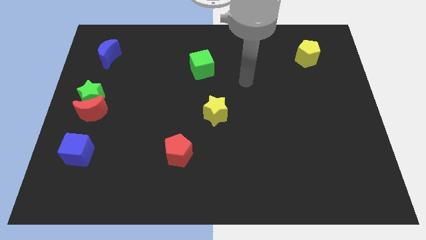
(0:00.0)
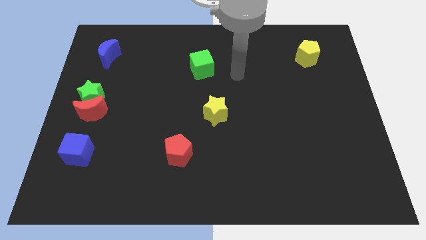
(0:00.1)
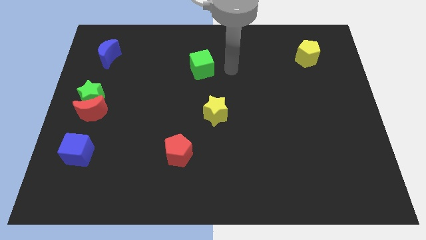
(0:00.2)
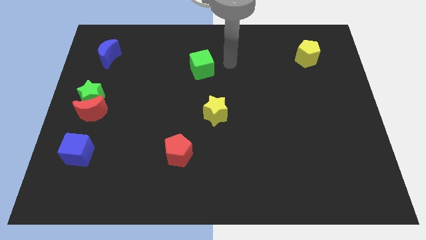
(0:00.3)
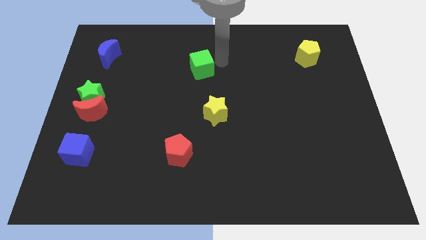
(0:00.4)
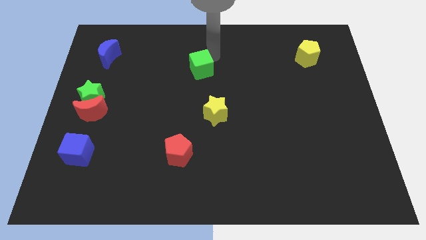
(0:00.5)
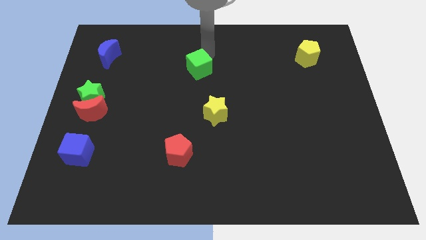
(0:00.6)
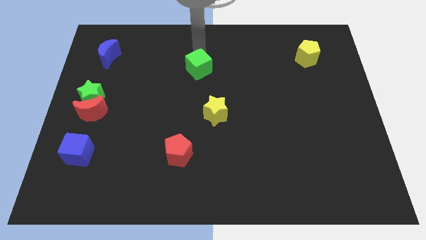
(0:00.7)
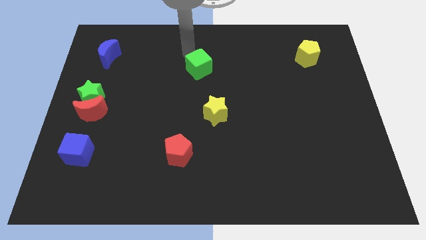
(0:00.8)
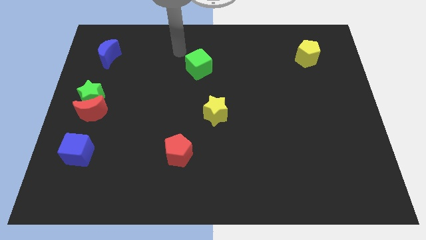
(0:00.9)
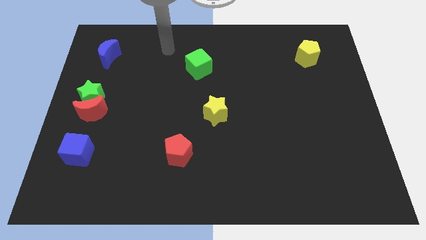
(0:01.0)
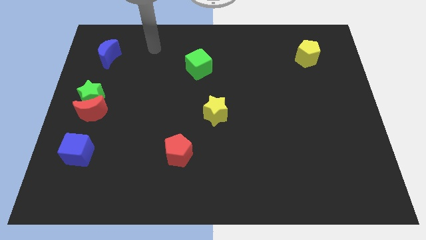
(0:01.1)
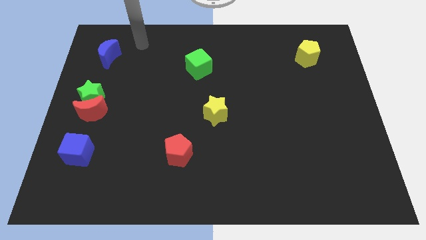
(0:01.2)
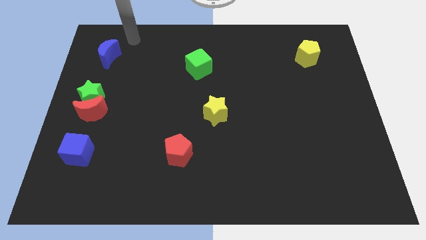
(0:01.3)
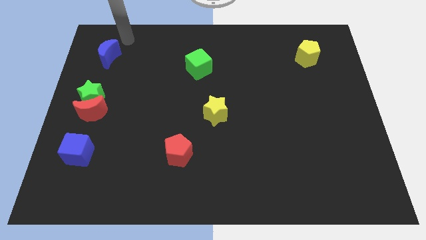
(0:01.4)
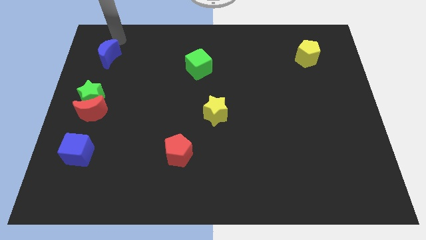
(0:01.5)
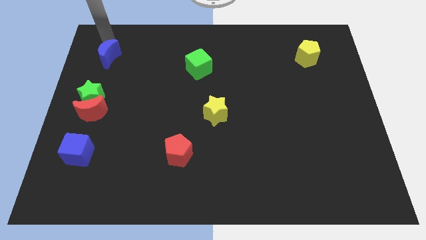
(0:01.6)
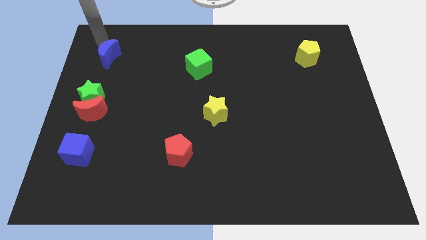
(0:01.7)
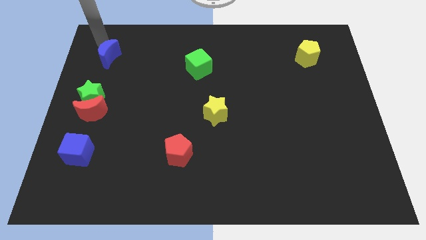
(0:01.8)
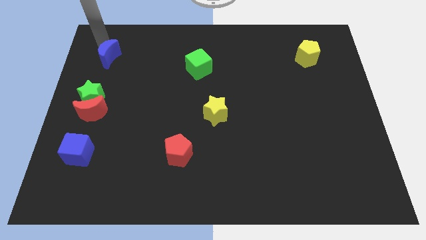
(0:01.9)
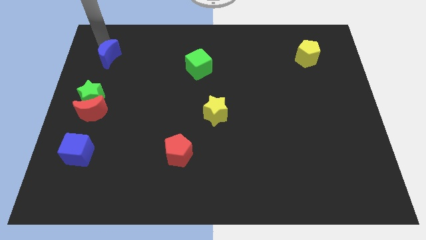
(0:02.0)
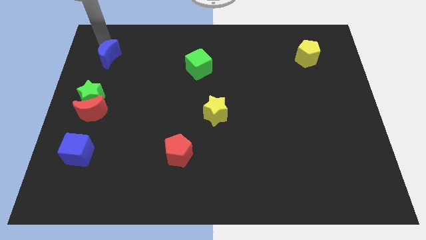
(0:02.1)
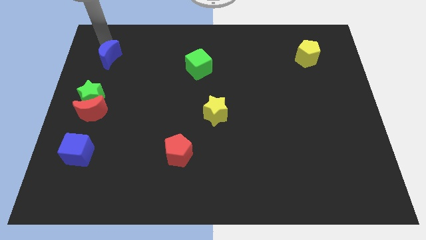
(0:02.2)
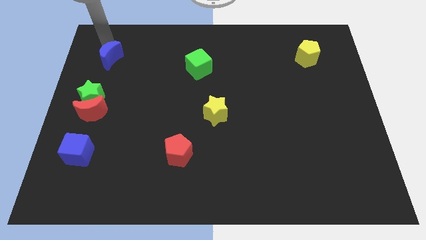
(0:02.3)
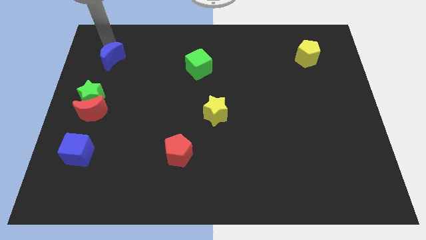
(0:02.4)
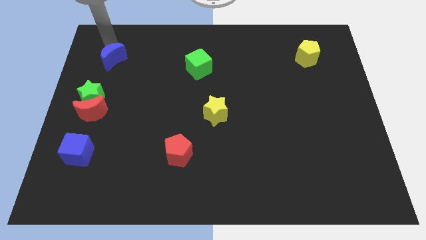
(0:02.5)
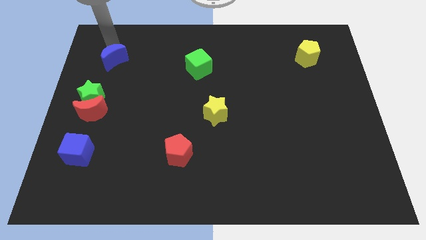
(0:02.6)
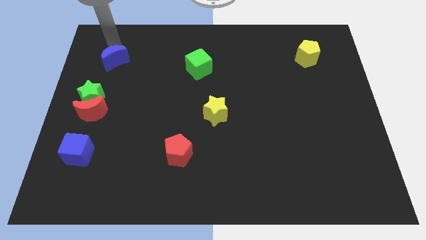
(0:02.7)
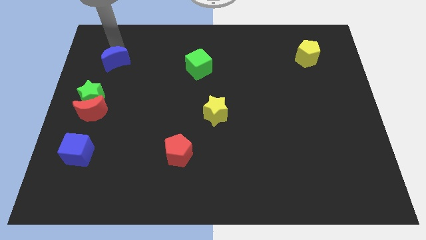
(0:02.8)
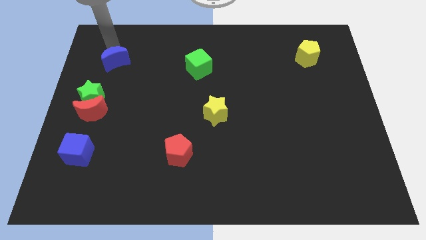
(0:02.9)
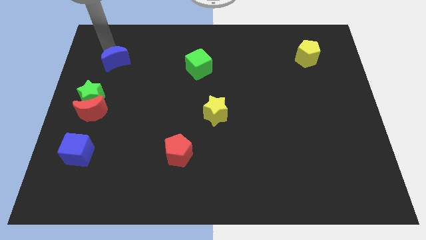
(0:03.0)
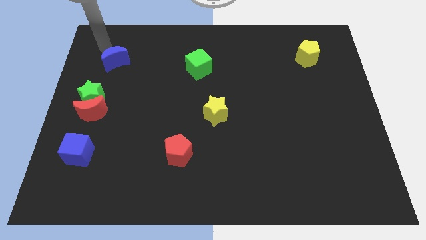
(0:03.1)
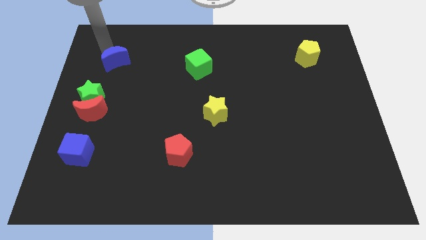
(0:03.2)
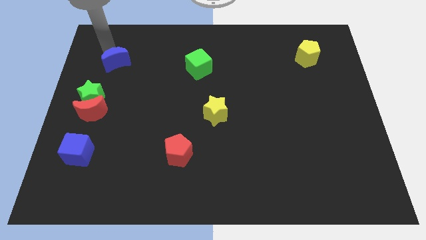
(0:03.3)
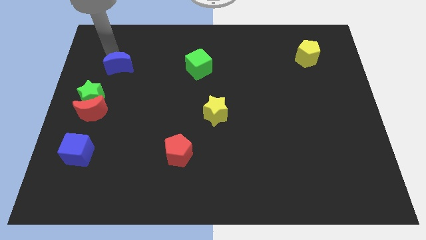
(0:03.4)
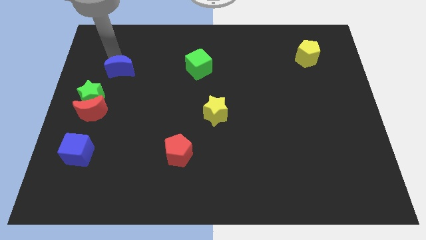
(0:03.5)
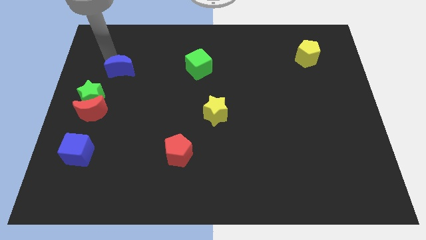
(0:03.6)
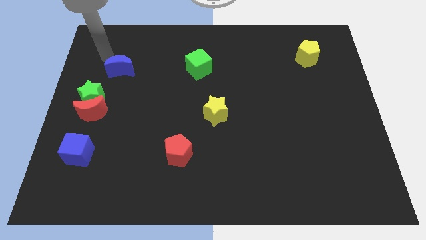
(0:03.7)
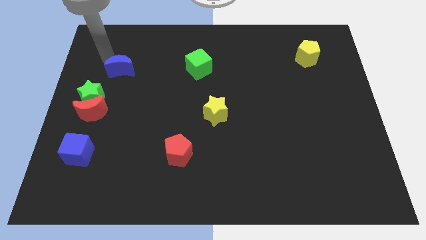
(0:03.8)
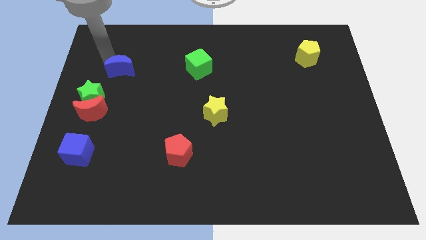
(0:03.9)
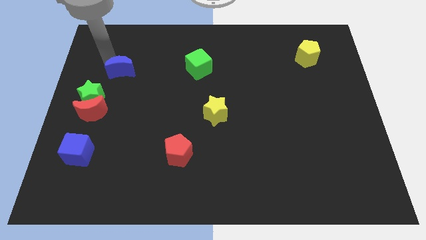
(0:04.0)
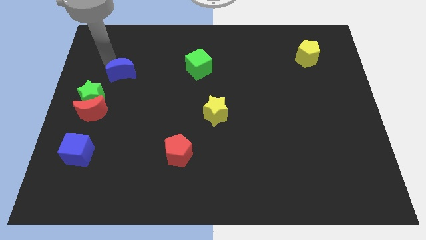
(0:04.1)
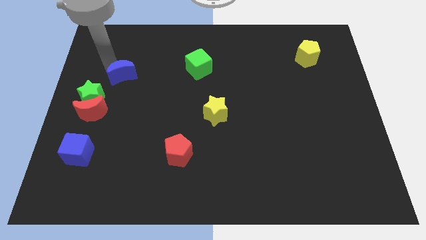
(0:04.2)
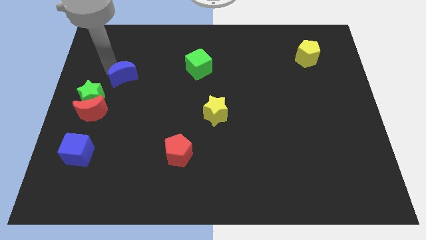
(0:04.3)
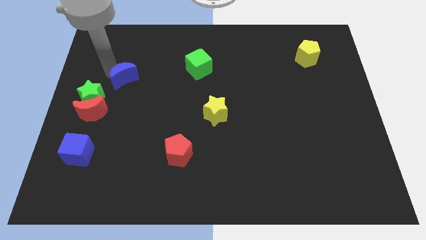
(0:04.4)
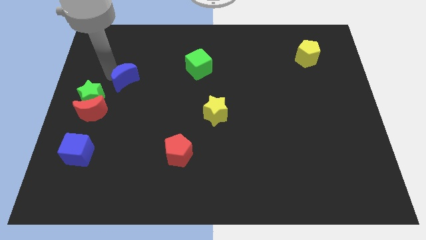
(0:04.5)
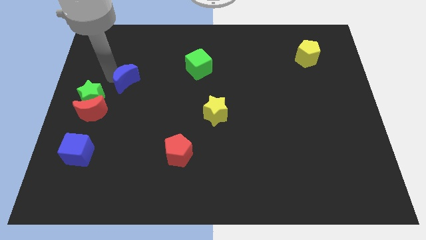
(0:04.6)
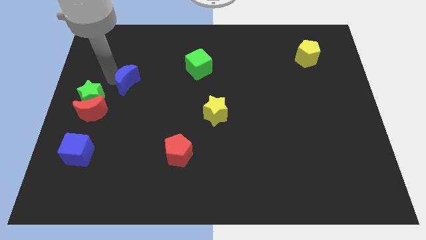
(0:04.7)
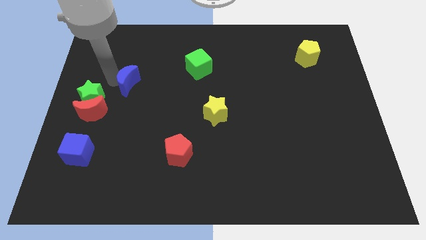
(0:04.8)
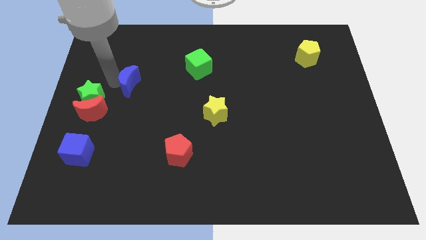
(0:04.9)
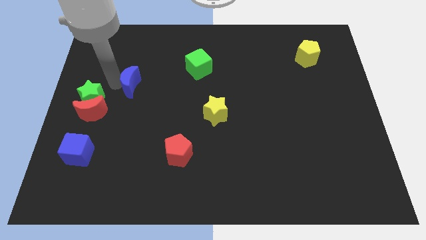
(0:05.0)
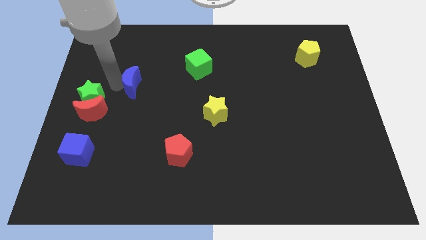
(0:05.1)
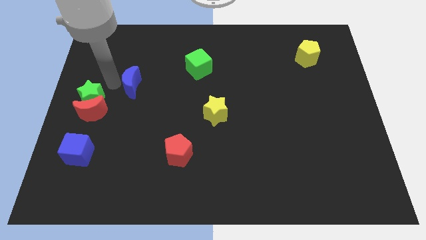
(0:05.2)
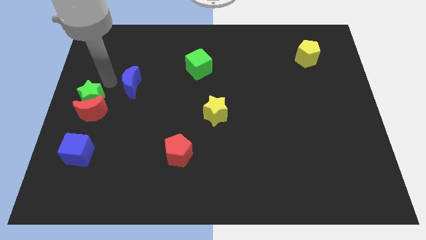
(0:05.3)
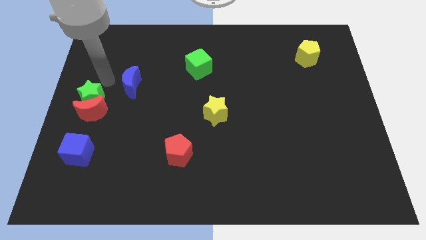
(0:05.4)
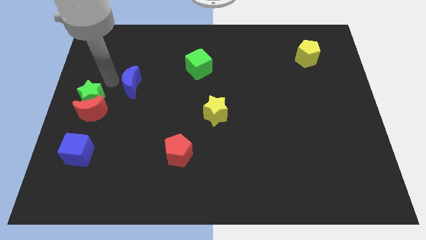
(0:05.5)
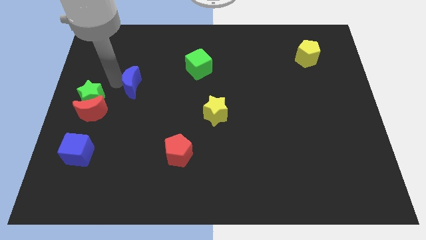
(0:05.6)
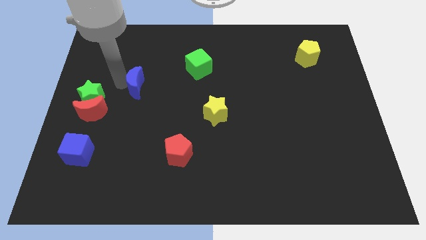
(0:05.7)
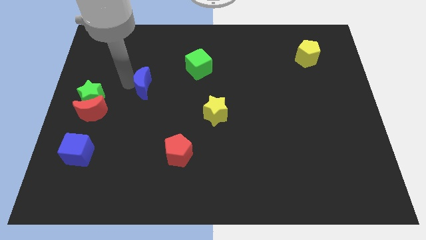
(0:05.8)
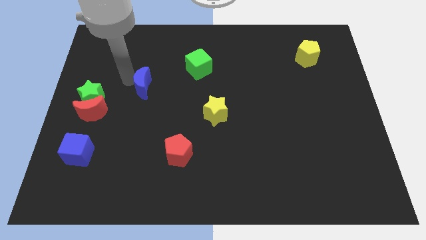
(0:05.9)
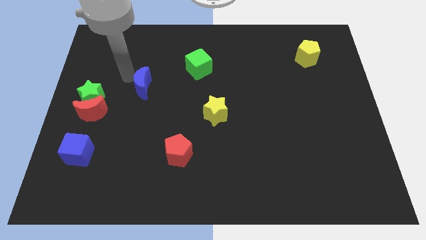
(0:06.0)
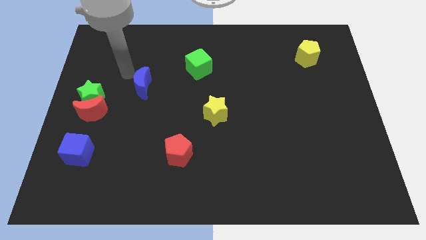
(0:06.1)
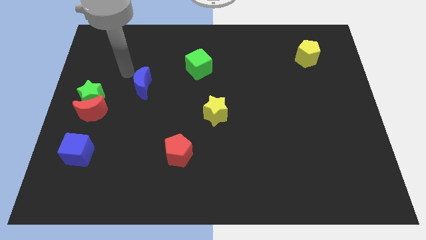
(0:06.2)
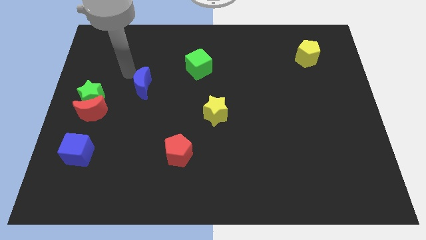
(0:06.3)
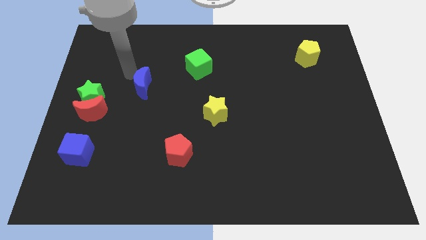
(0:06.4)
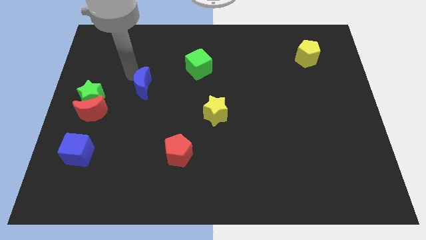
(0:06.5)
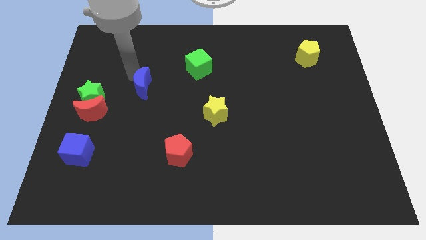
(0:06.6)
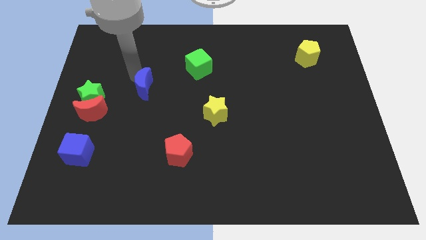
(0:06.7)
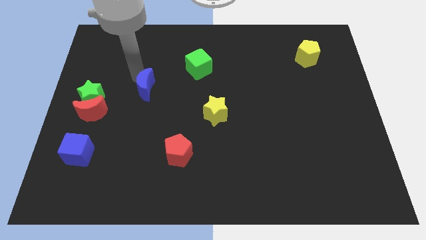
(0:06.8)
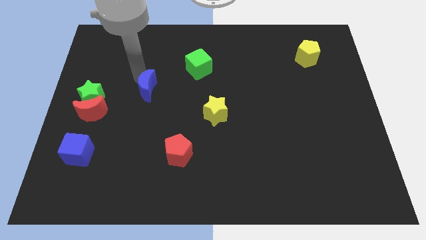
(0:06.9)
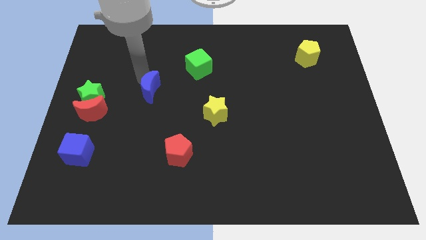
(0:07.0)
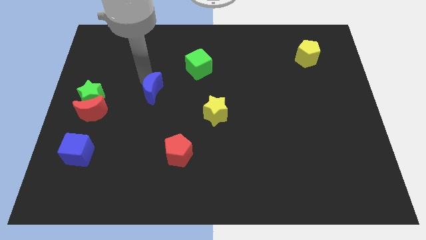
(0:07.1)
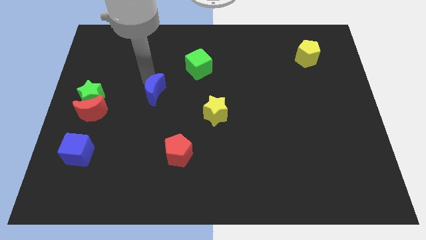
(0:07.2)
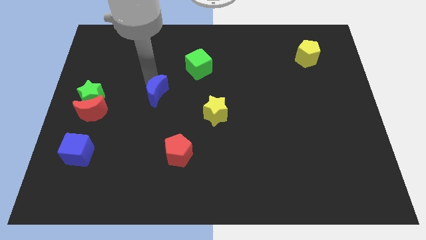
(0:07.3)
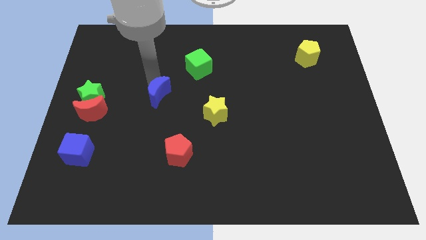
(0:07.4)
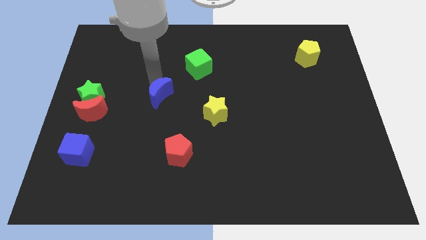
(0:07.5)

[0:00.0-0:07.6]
slide the blue moon diagonally down and right

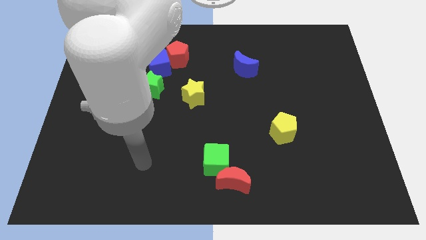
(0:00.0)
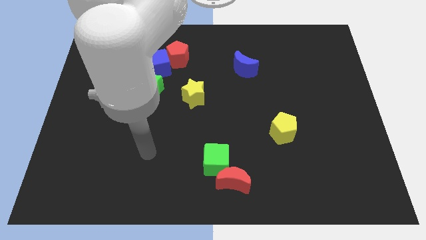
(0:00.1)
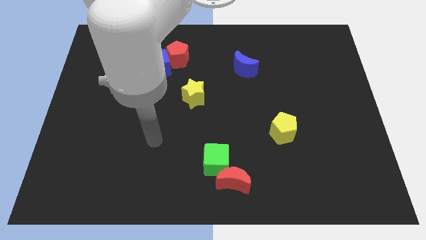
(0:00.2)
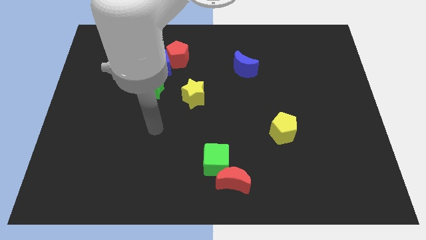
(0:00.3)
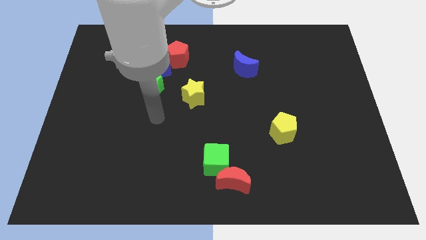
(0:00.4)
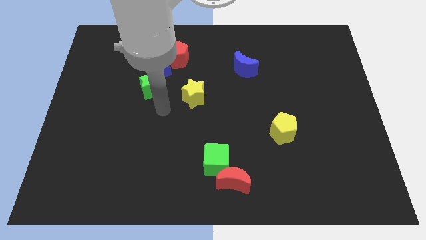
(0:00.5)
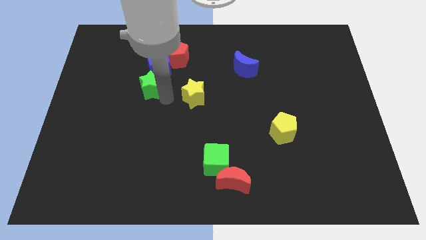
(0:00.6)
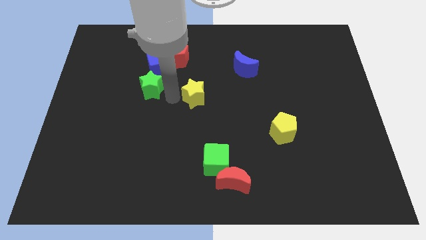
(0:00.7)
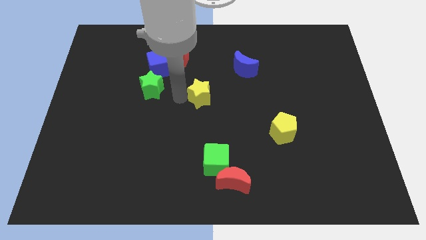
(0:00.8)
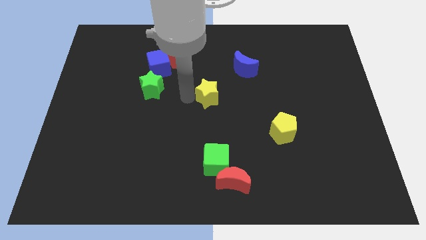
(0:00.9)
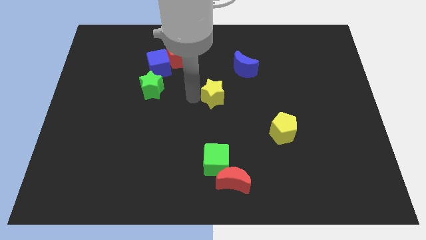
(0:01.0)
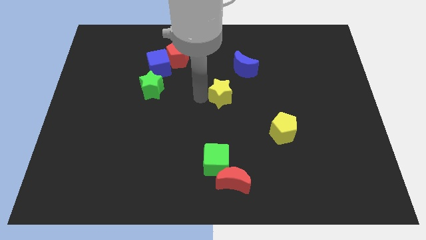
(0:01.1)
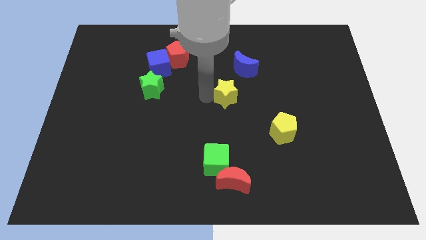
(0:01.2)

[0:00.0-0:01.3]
move the yellow star to the right slightly
